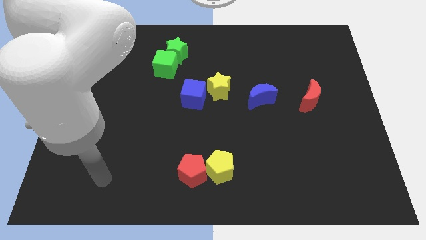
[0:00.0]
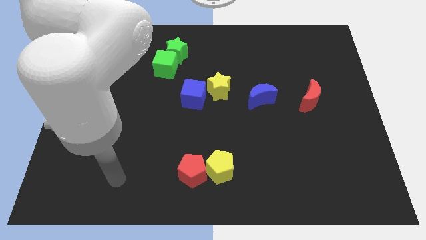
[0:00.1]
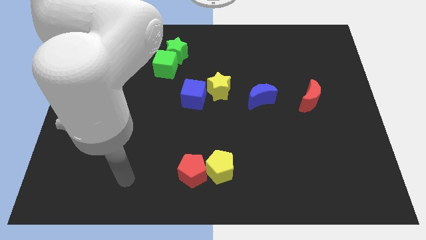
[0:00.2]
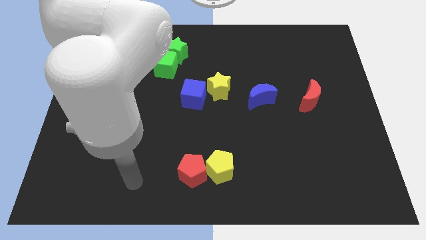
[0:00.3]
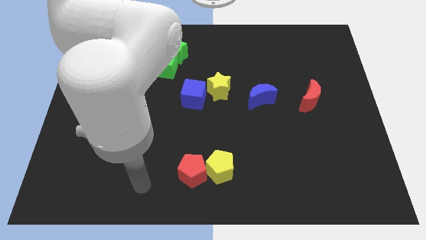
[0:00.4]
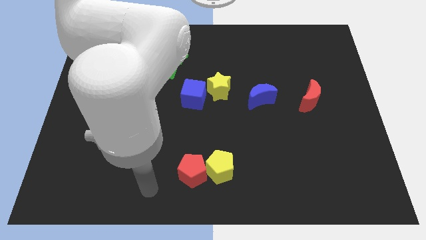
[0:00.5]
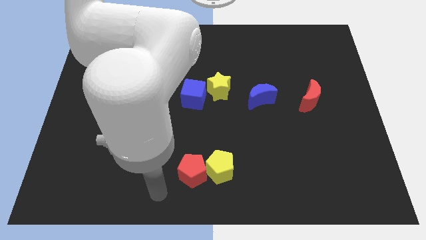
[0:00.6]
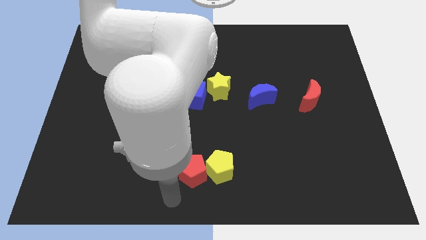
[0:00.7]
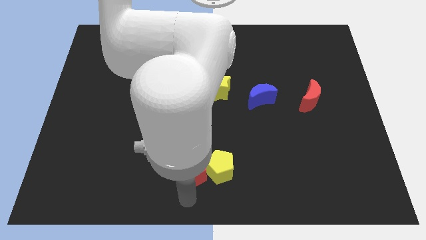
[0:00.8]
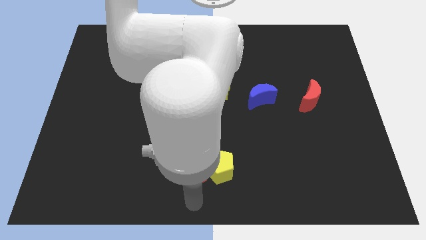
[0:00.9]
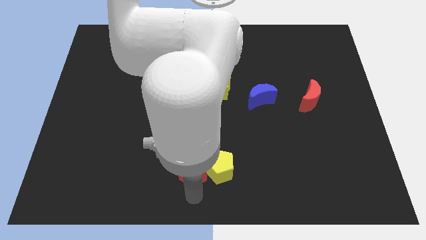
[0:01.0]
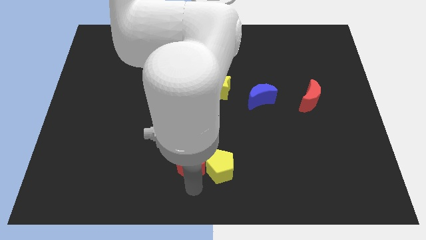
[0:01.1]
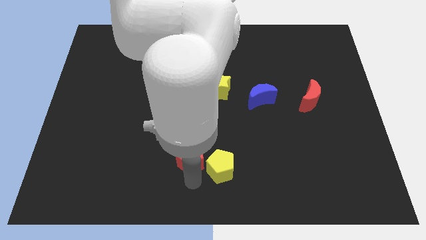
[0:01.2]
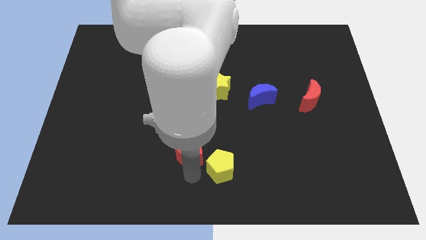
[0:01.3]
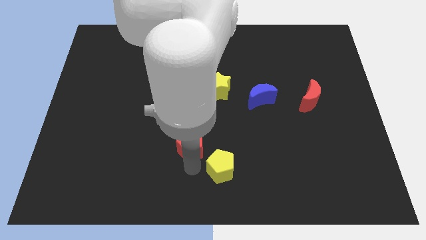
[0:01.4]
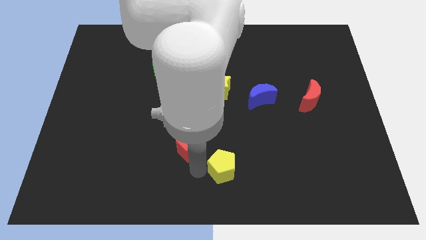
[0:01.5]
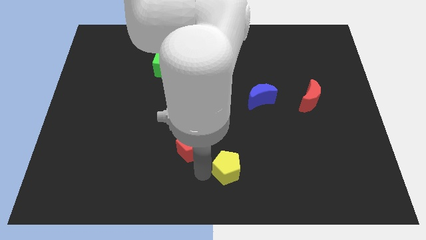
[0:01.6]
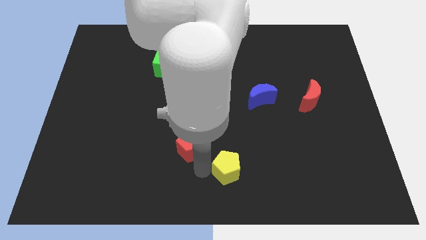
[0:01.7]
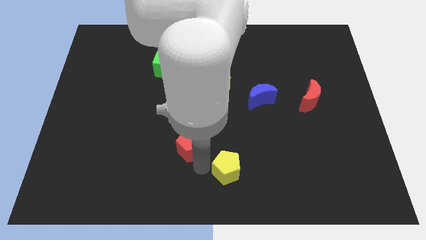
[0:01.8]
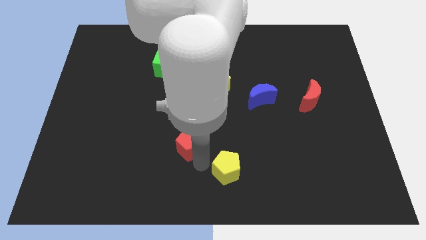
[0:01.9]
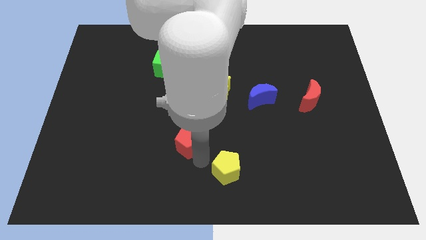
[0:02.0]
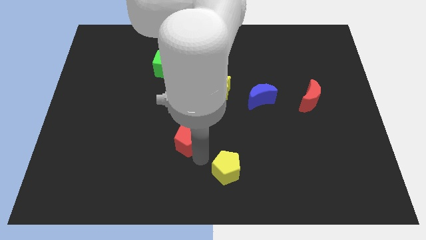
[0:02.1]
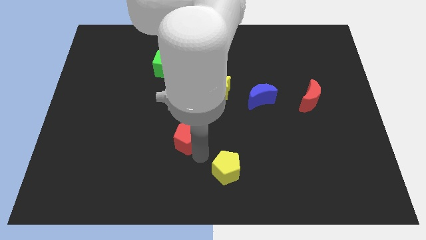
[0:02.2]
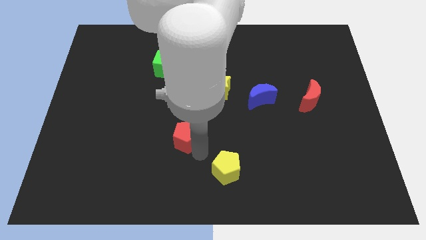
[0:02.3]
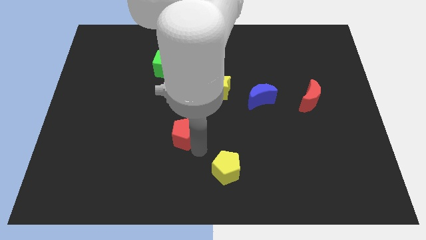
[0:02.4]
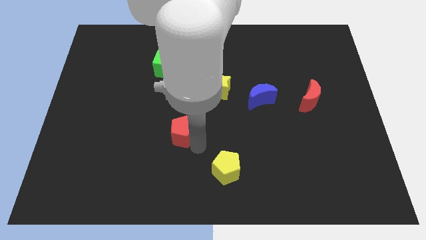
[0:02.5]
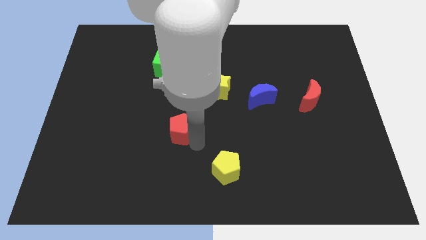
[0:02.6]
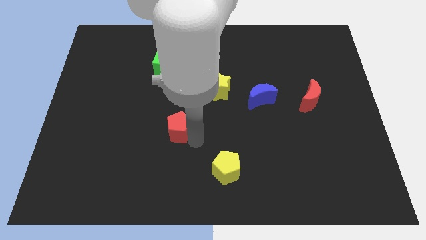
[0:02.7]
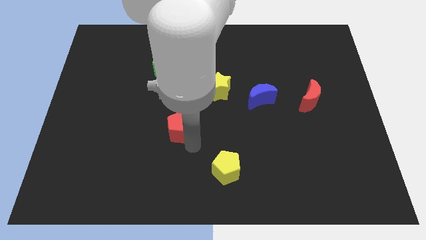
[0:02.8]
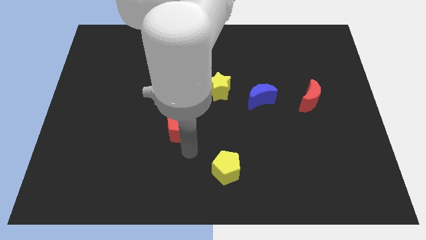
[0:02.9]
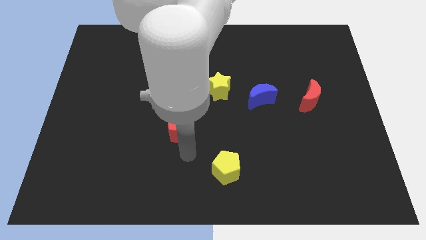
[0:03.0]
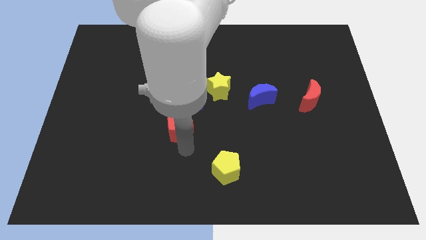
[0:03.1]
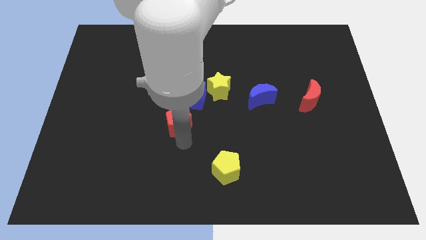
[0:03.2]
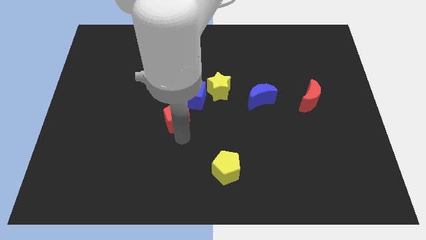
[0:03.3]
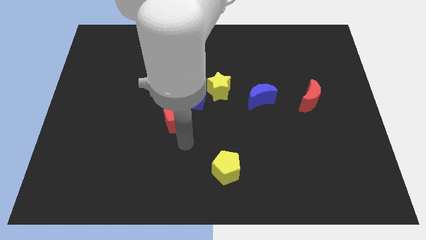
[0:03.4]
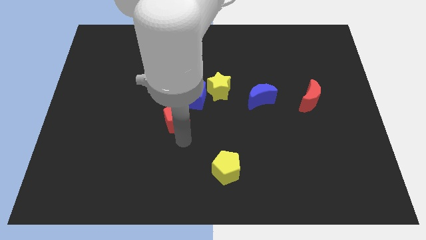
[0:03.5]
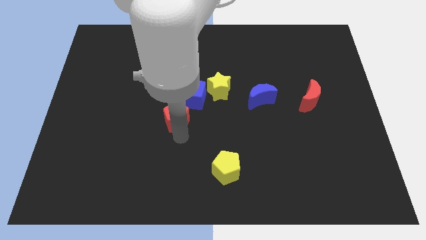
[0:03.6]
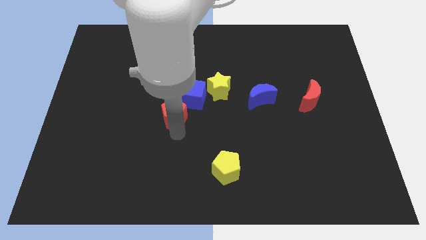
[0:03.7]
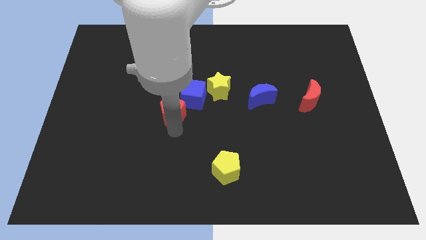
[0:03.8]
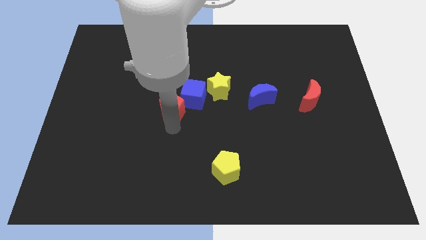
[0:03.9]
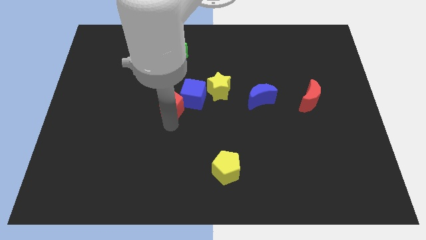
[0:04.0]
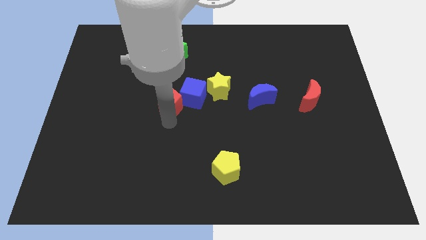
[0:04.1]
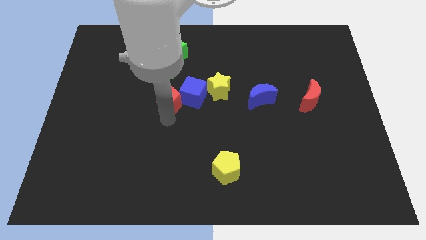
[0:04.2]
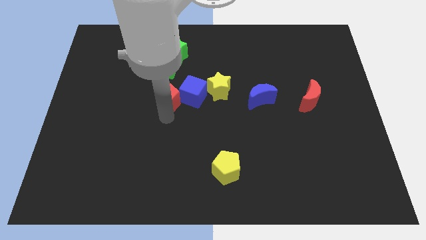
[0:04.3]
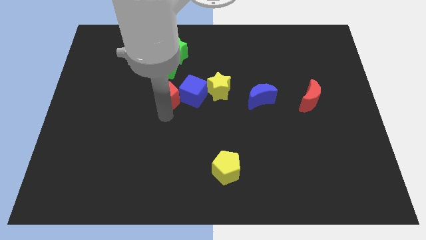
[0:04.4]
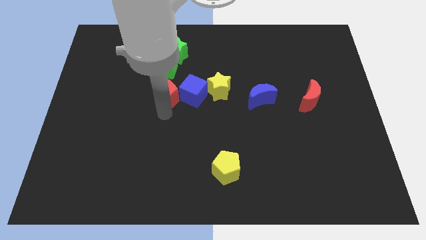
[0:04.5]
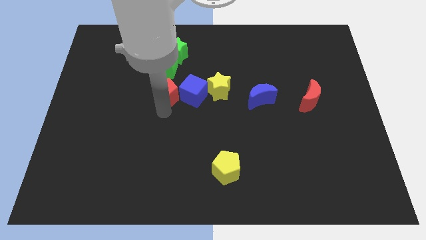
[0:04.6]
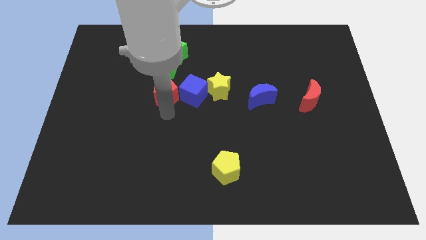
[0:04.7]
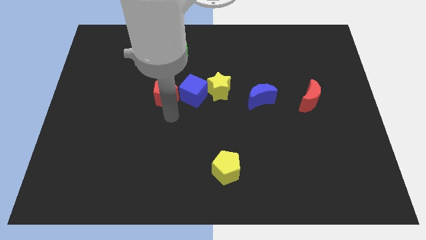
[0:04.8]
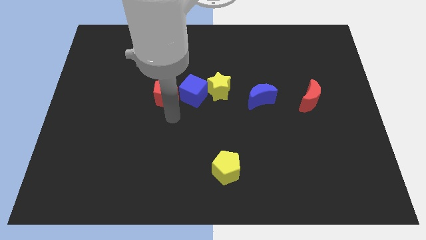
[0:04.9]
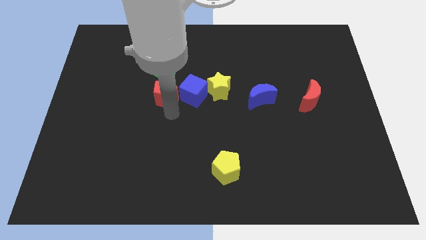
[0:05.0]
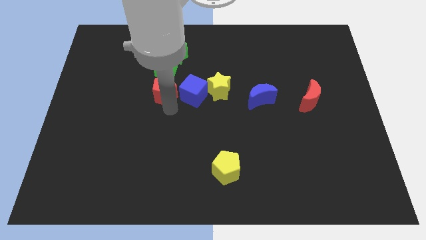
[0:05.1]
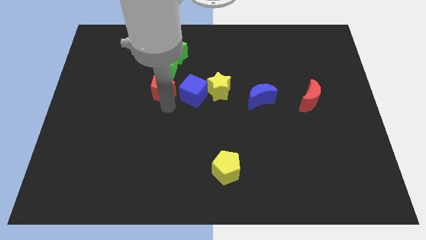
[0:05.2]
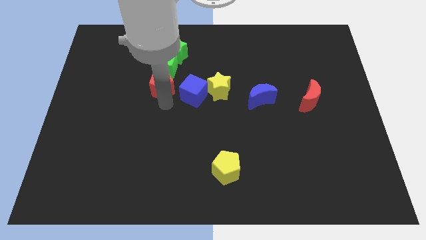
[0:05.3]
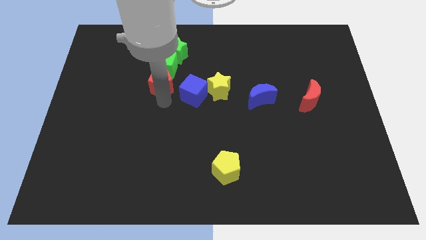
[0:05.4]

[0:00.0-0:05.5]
put the red pentagon to the green cube

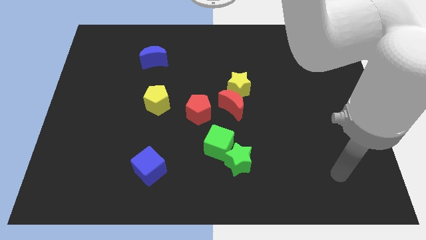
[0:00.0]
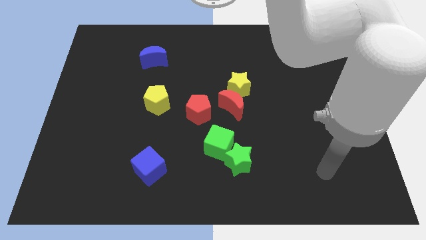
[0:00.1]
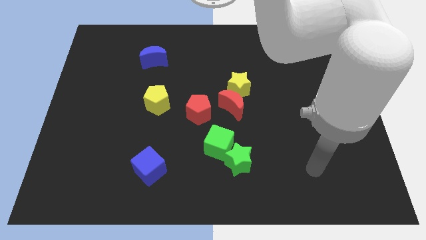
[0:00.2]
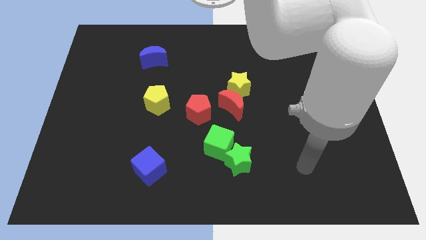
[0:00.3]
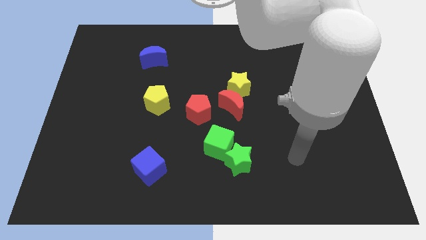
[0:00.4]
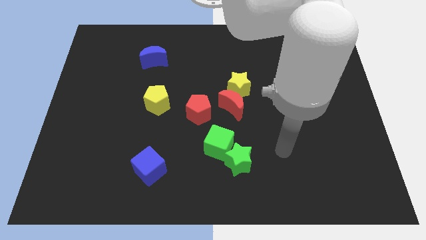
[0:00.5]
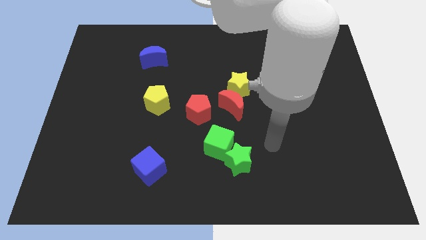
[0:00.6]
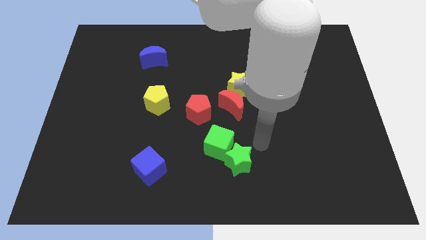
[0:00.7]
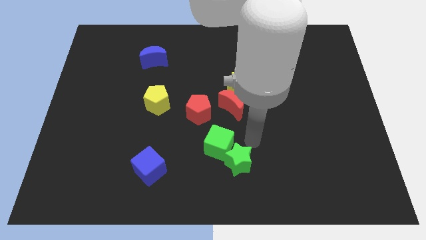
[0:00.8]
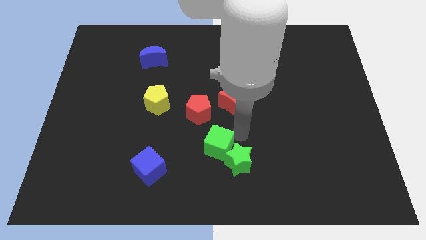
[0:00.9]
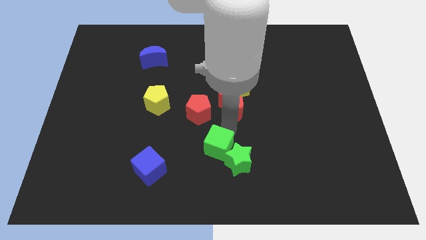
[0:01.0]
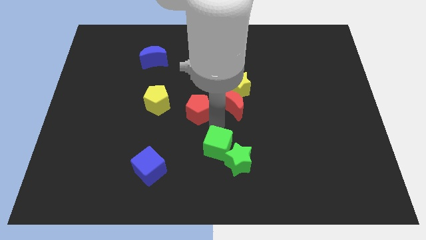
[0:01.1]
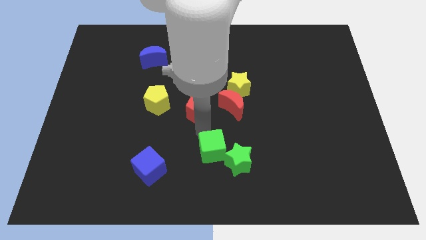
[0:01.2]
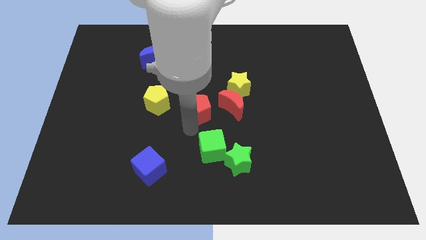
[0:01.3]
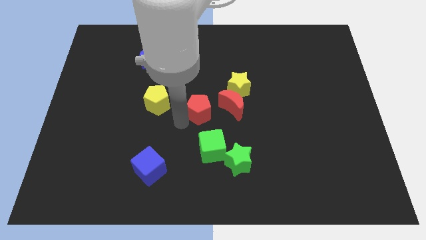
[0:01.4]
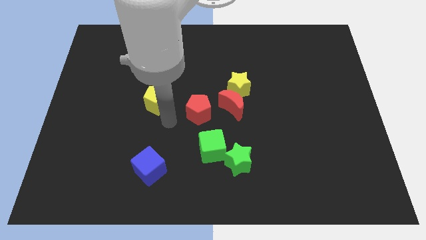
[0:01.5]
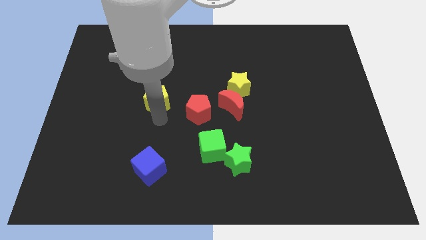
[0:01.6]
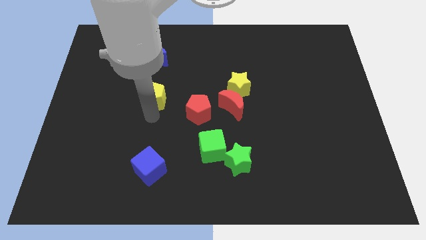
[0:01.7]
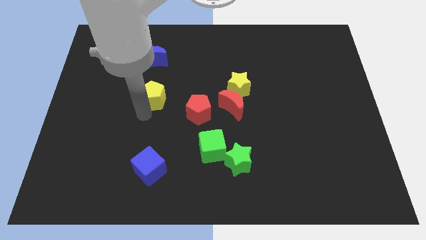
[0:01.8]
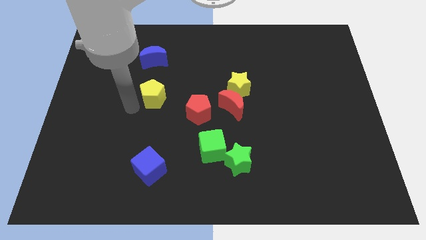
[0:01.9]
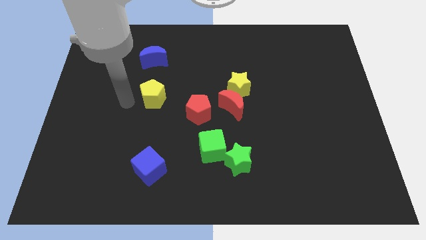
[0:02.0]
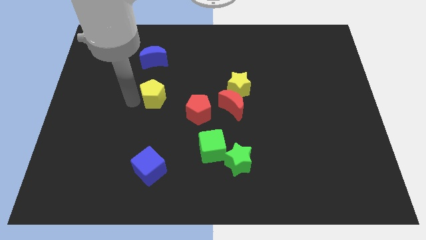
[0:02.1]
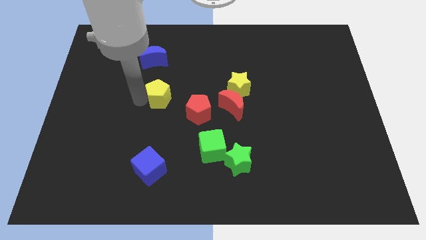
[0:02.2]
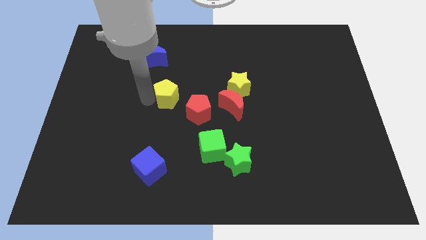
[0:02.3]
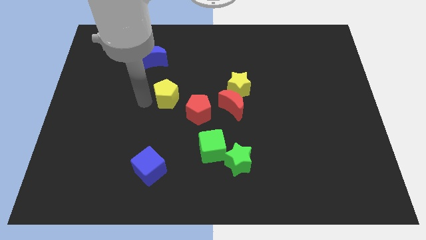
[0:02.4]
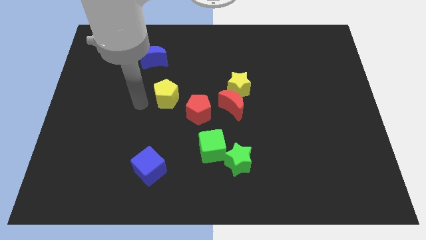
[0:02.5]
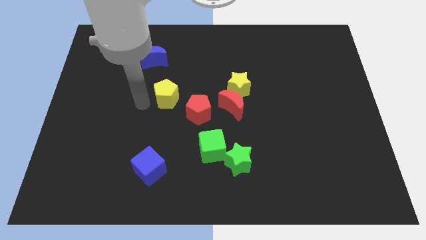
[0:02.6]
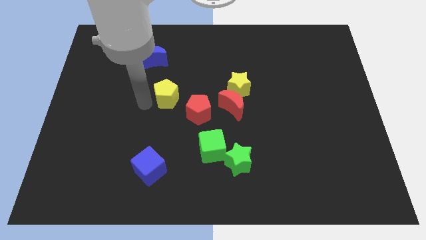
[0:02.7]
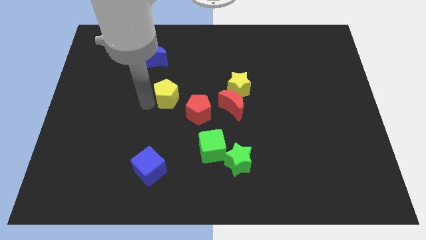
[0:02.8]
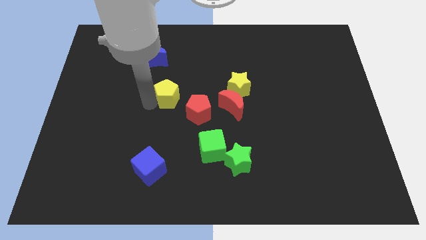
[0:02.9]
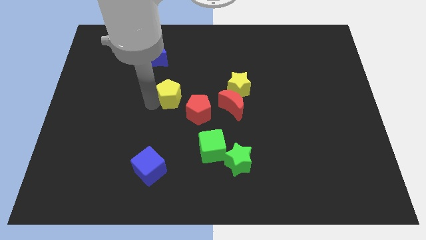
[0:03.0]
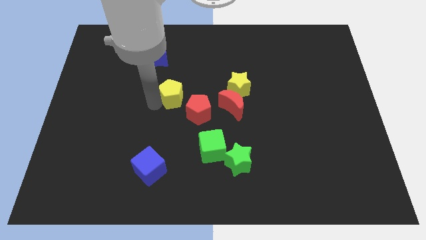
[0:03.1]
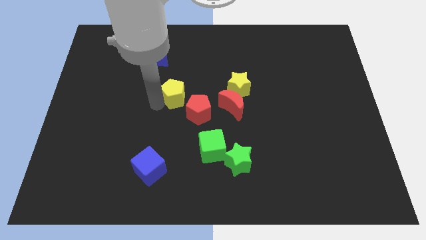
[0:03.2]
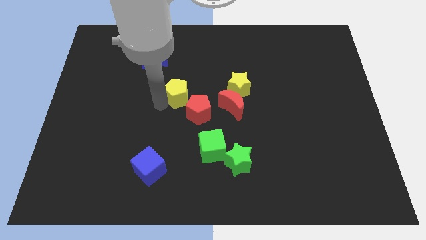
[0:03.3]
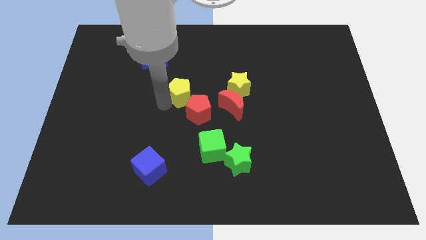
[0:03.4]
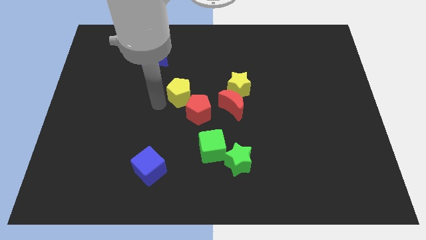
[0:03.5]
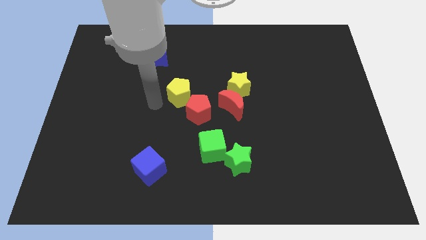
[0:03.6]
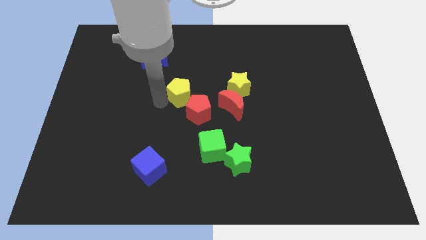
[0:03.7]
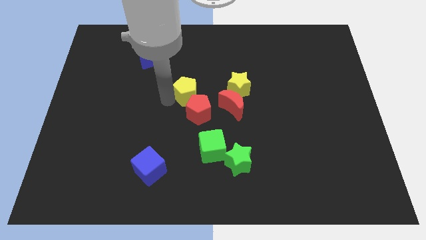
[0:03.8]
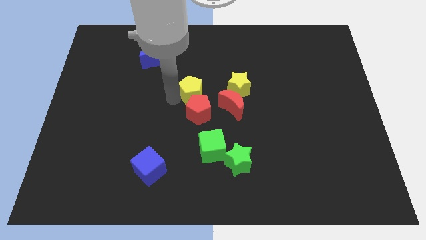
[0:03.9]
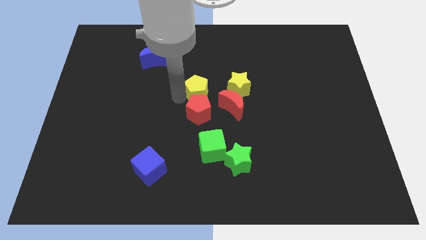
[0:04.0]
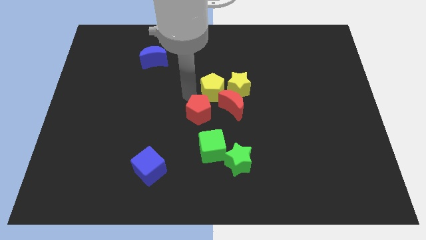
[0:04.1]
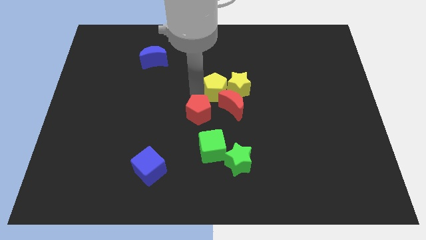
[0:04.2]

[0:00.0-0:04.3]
move the yellow pentagon to the yellow star
